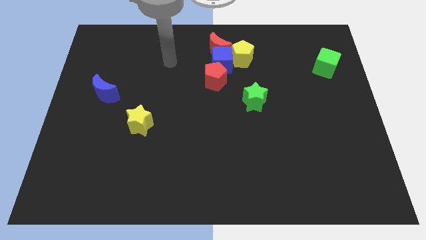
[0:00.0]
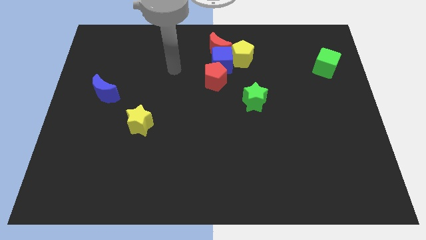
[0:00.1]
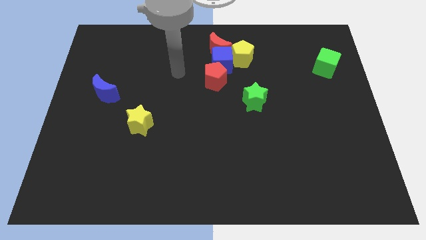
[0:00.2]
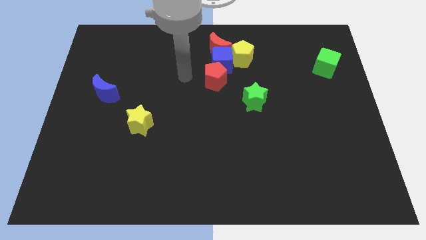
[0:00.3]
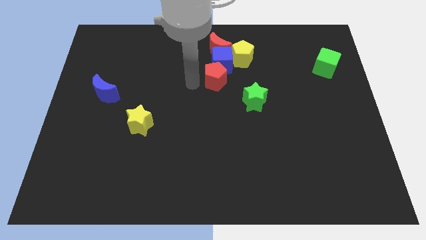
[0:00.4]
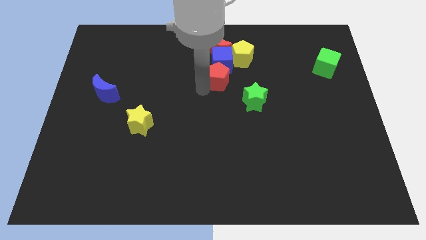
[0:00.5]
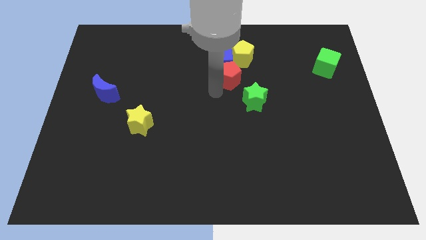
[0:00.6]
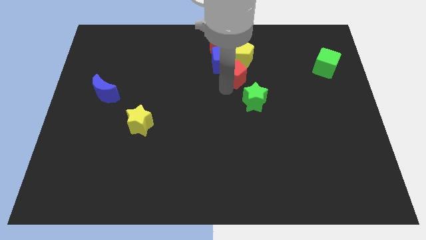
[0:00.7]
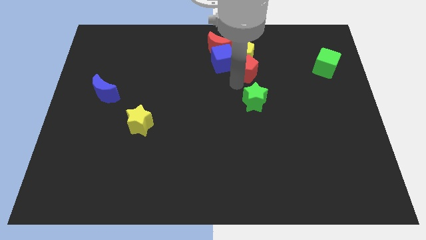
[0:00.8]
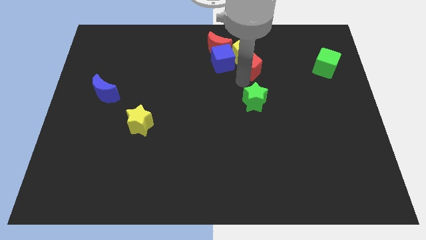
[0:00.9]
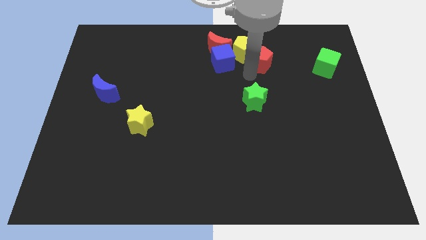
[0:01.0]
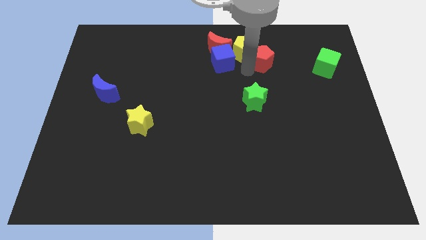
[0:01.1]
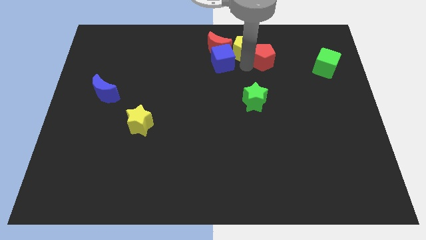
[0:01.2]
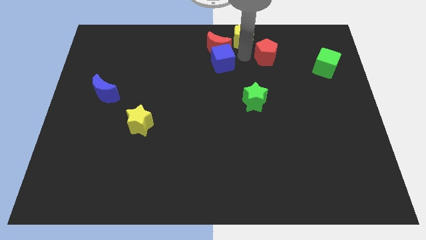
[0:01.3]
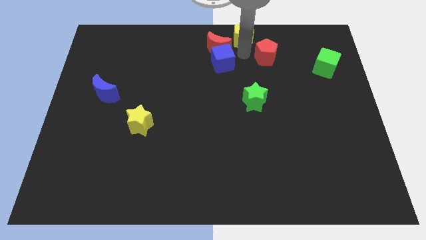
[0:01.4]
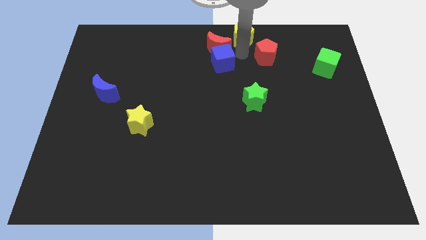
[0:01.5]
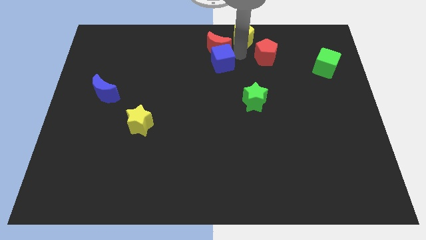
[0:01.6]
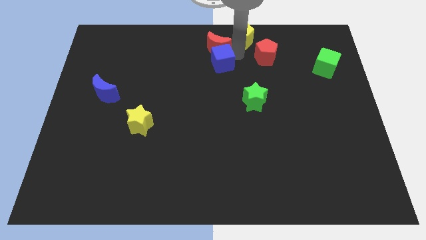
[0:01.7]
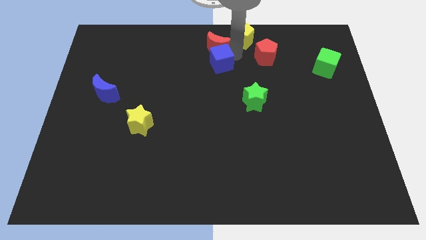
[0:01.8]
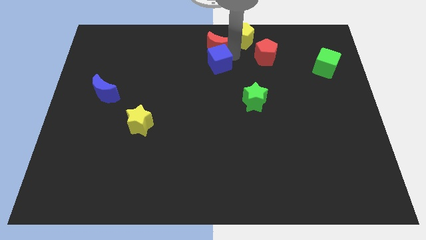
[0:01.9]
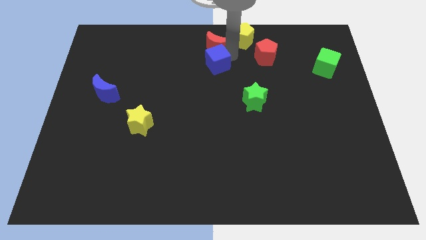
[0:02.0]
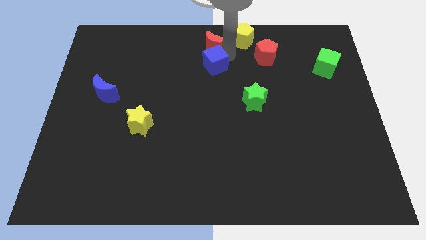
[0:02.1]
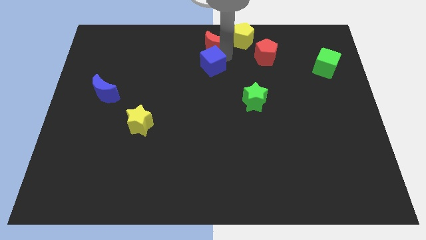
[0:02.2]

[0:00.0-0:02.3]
separate the blue cube from the group

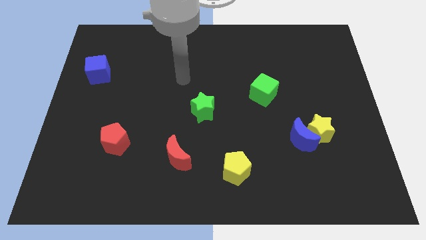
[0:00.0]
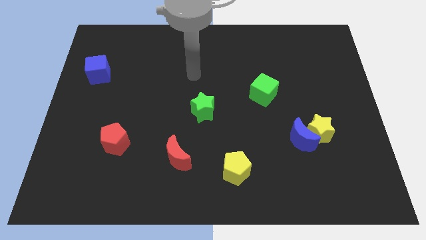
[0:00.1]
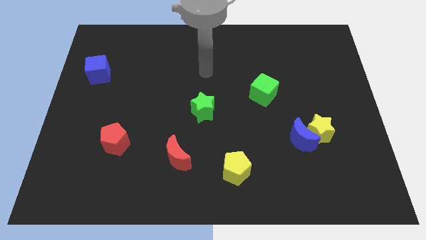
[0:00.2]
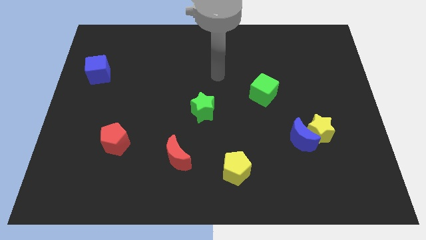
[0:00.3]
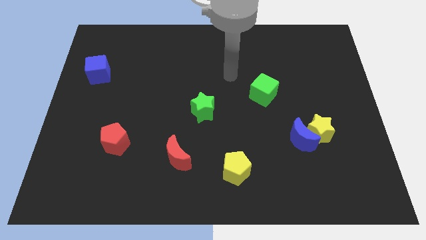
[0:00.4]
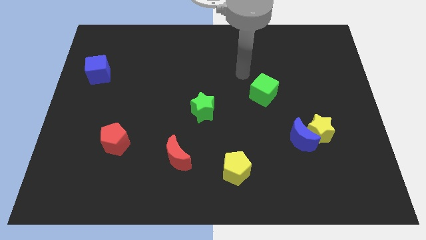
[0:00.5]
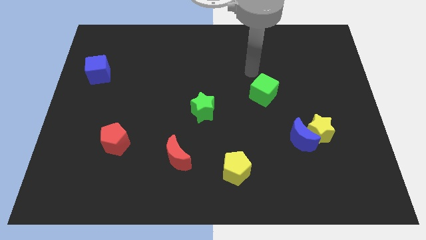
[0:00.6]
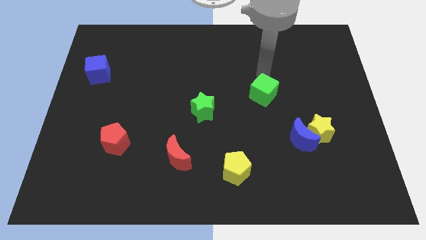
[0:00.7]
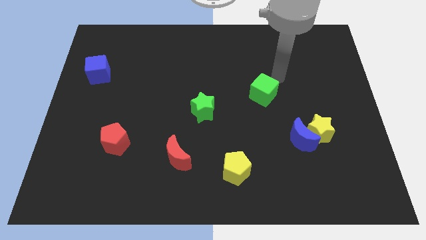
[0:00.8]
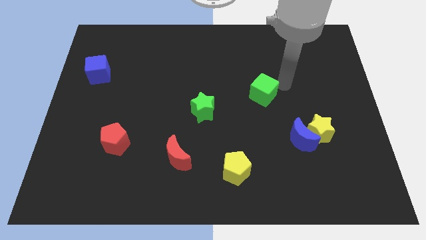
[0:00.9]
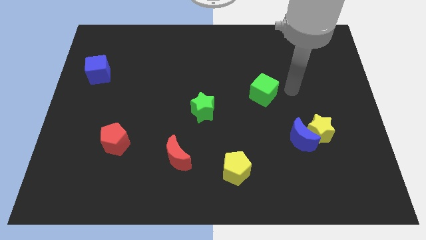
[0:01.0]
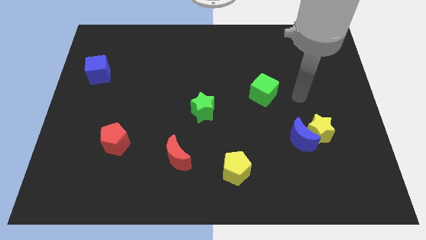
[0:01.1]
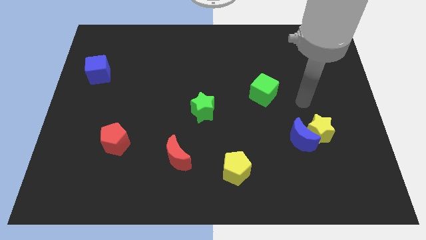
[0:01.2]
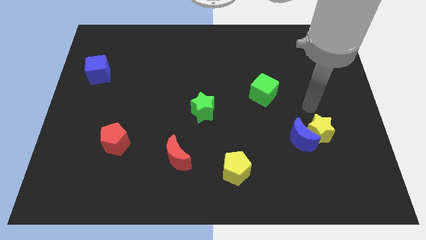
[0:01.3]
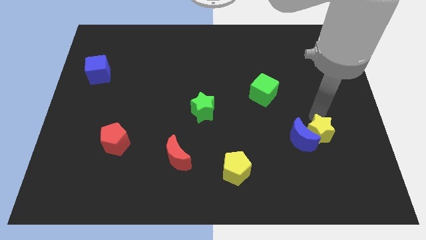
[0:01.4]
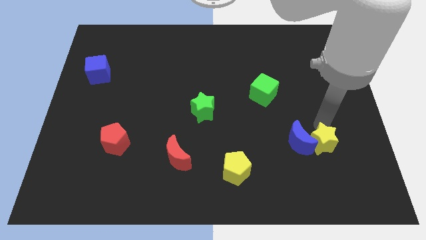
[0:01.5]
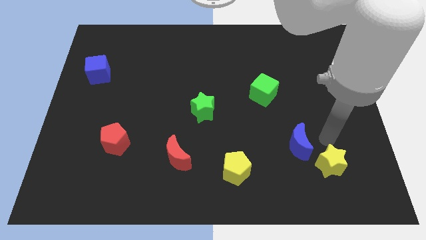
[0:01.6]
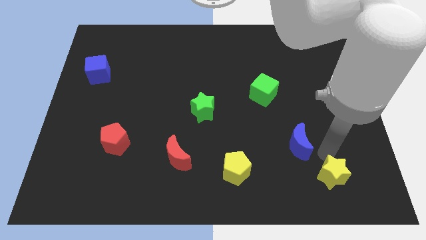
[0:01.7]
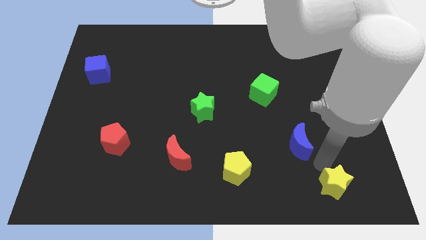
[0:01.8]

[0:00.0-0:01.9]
move the blue moon away from the yellow star

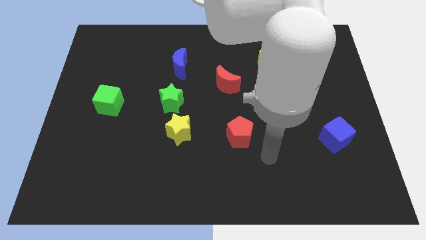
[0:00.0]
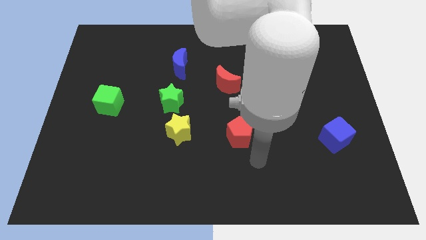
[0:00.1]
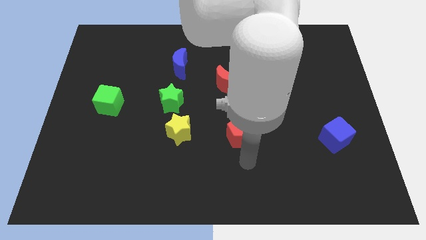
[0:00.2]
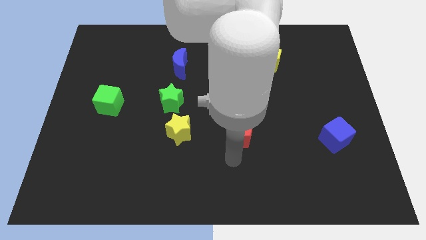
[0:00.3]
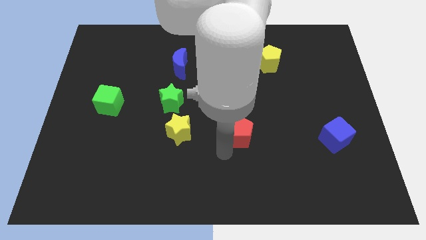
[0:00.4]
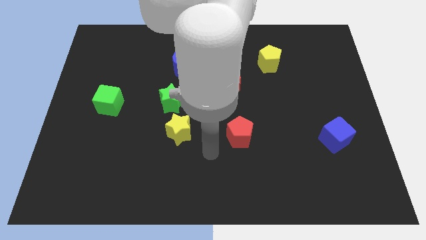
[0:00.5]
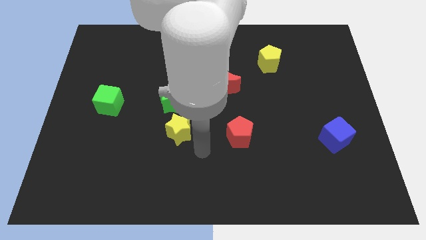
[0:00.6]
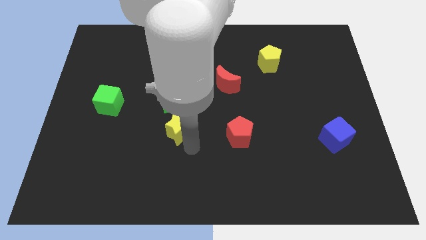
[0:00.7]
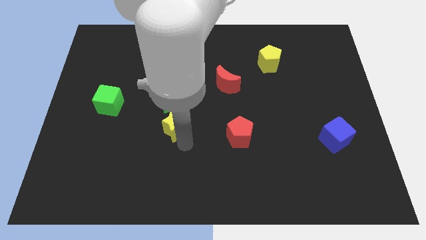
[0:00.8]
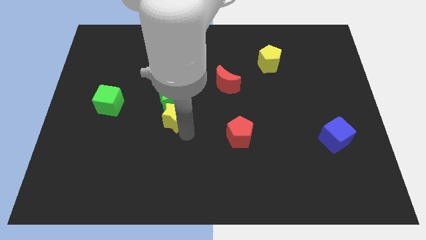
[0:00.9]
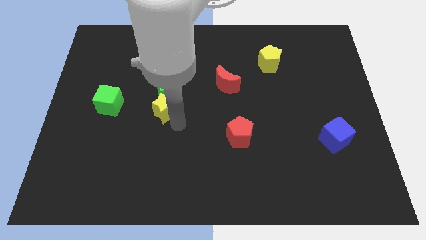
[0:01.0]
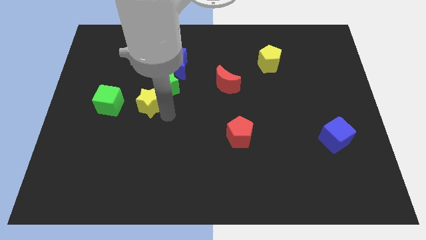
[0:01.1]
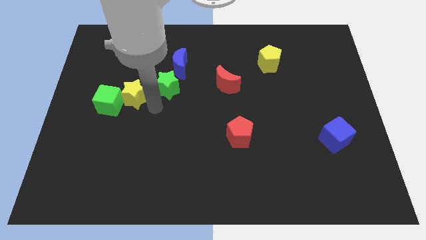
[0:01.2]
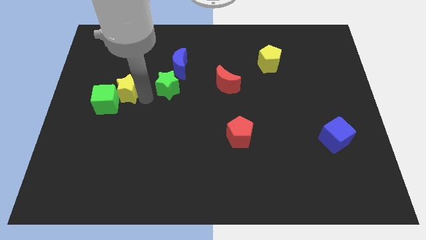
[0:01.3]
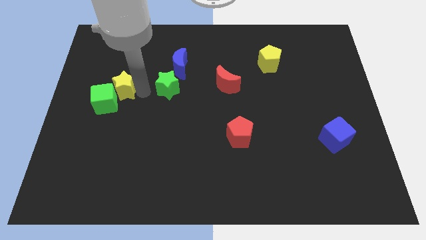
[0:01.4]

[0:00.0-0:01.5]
move the green star away from the yellow star

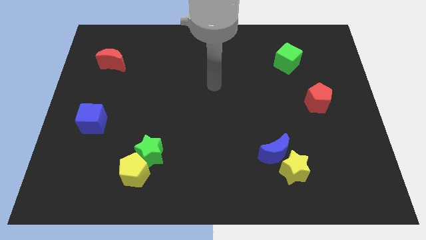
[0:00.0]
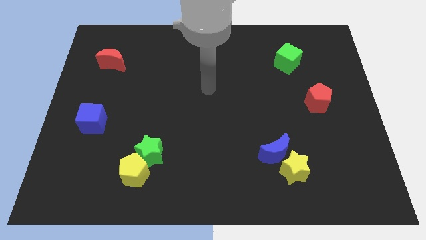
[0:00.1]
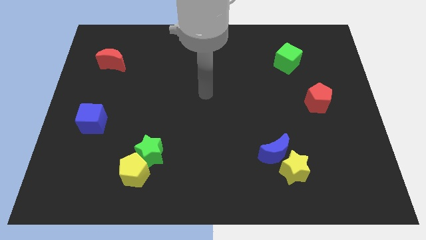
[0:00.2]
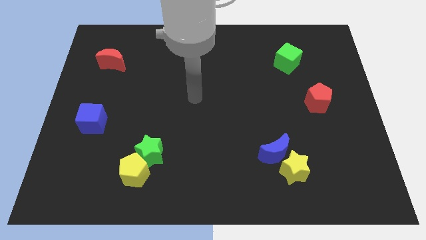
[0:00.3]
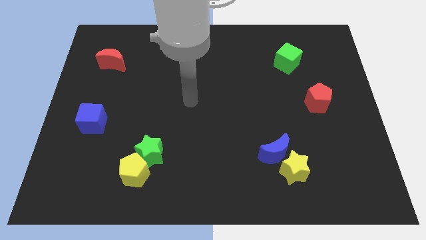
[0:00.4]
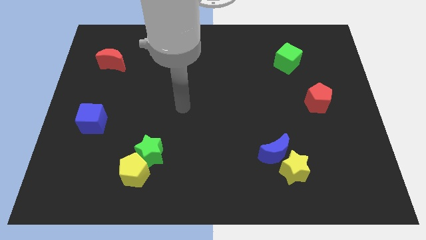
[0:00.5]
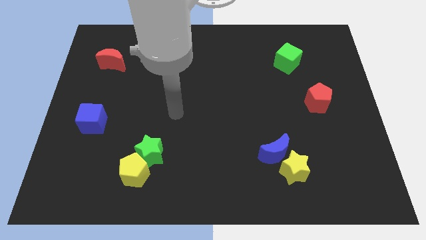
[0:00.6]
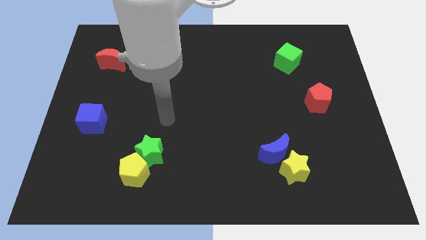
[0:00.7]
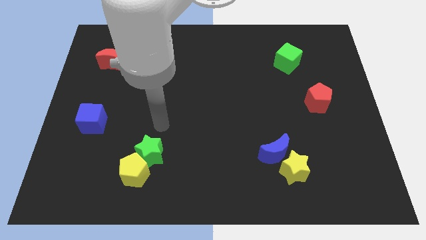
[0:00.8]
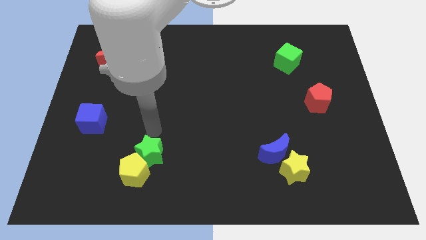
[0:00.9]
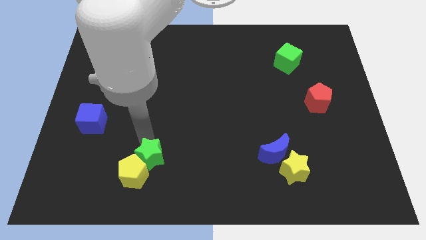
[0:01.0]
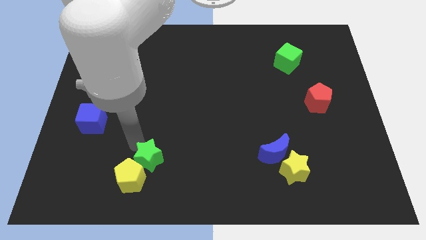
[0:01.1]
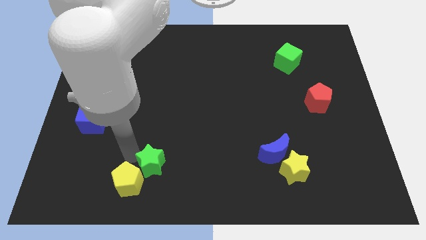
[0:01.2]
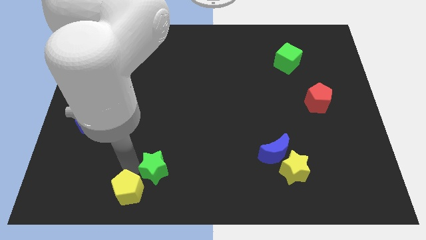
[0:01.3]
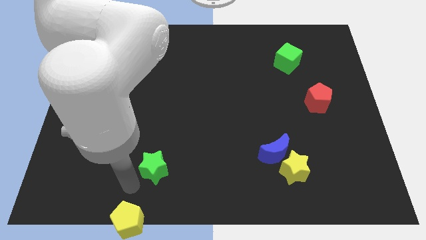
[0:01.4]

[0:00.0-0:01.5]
move the green star away from the yellow pentagon

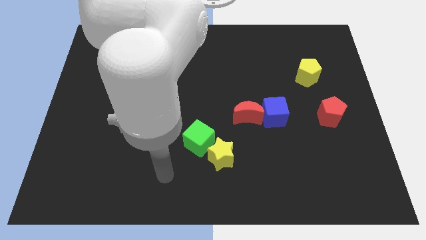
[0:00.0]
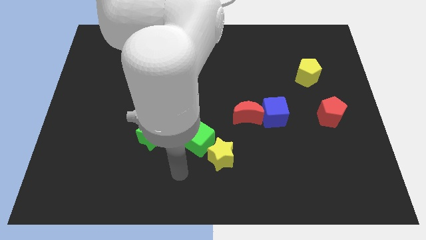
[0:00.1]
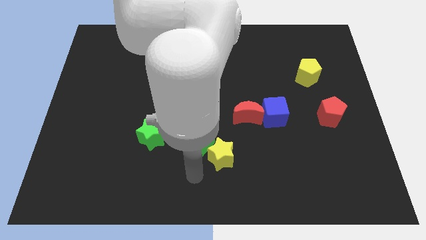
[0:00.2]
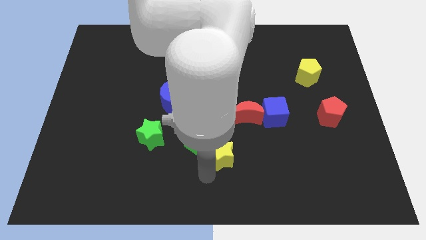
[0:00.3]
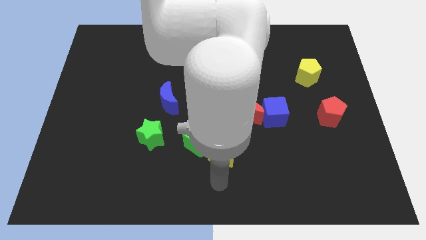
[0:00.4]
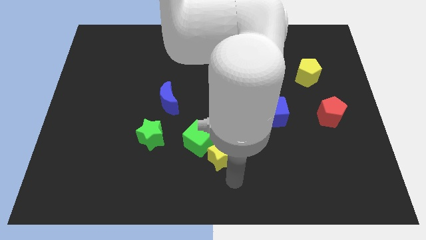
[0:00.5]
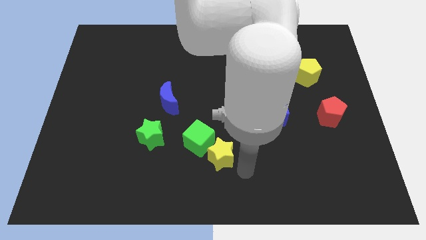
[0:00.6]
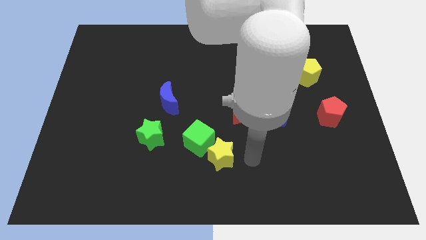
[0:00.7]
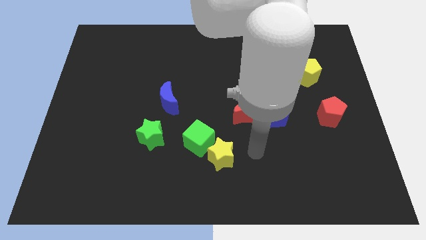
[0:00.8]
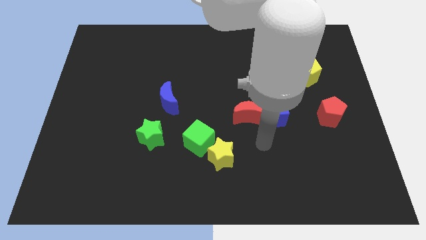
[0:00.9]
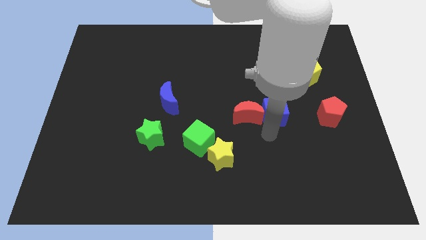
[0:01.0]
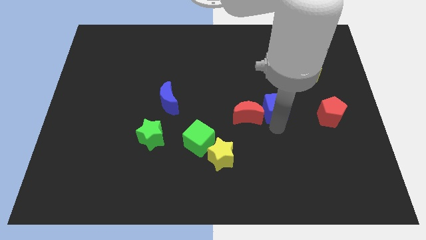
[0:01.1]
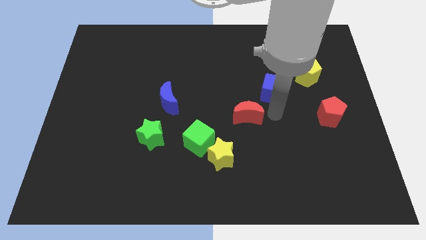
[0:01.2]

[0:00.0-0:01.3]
pull the red moon apart from the blue cube

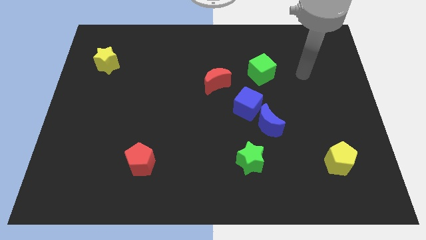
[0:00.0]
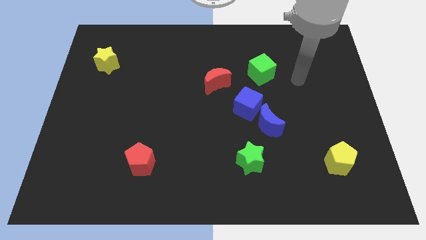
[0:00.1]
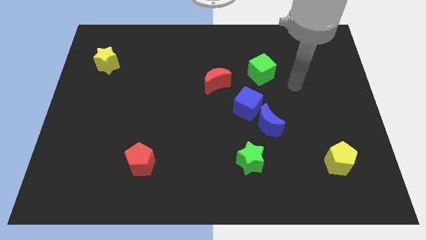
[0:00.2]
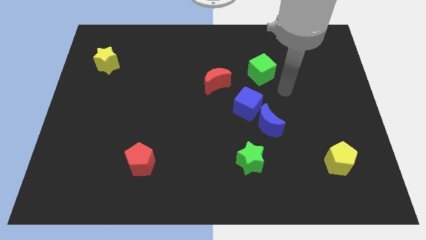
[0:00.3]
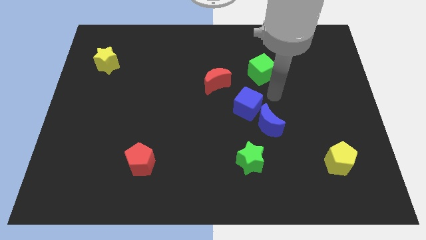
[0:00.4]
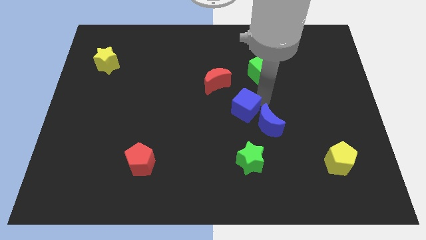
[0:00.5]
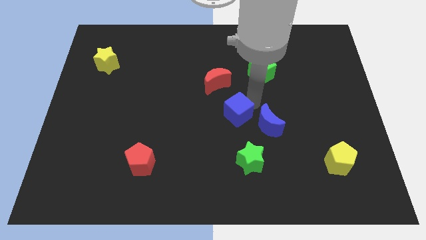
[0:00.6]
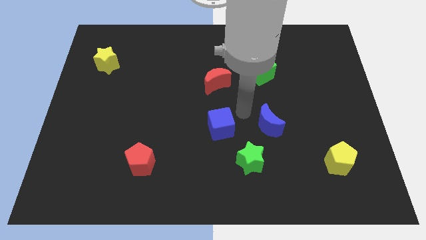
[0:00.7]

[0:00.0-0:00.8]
move the blue moon away from the blue cube
